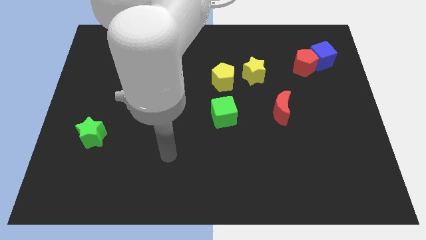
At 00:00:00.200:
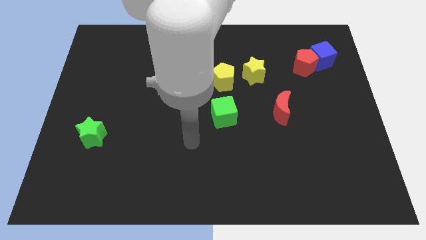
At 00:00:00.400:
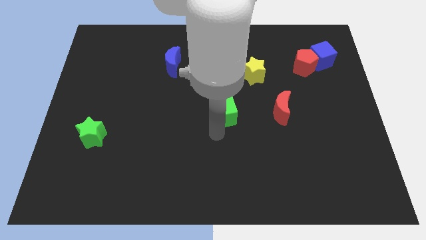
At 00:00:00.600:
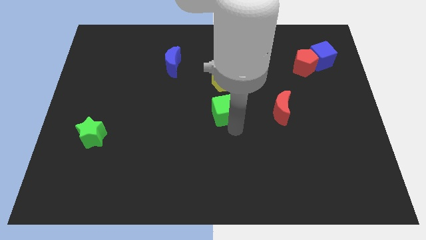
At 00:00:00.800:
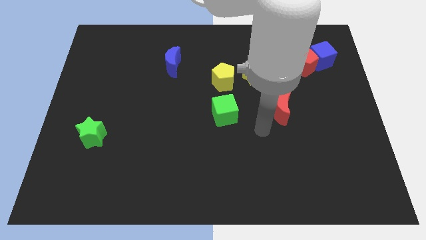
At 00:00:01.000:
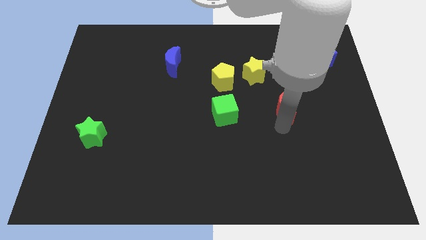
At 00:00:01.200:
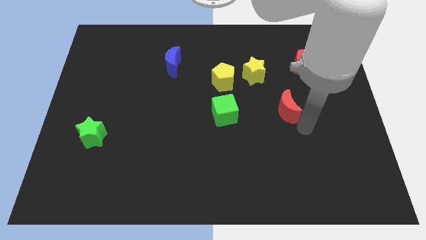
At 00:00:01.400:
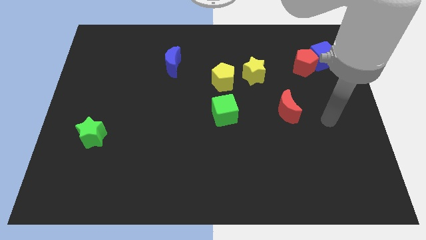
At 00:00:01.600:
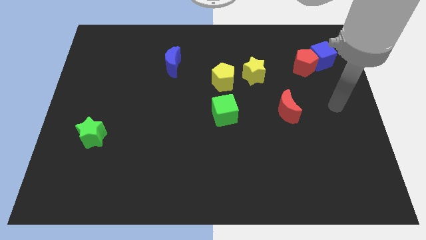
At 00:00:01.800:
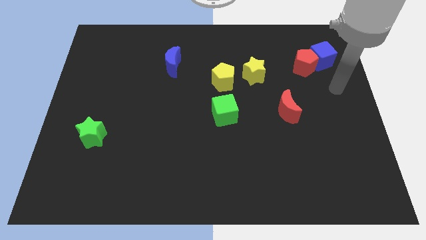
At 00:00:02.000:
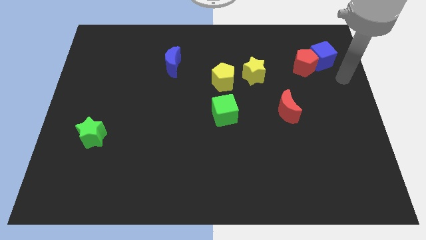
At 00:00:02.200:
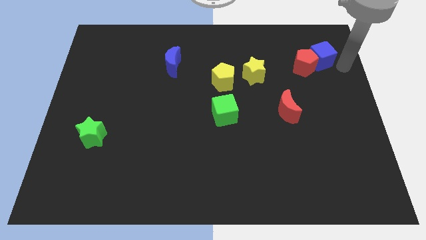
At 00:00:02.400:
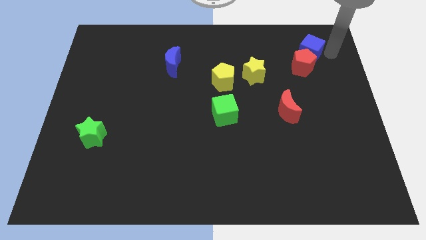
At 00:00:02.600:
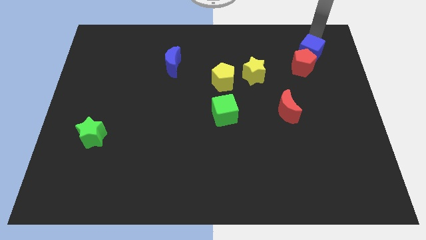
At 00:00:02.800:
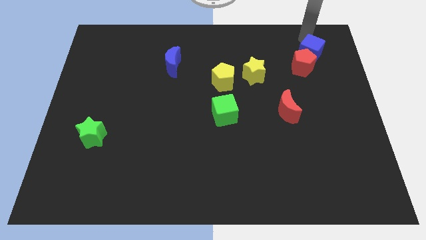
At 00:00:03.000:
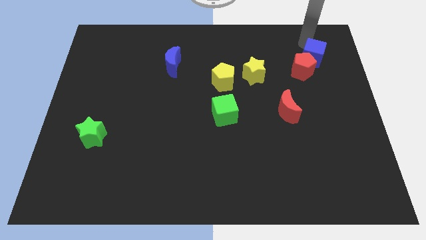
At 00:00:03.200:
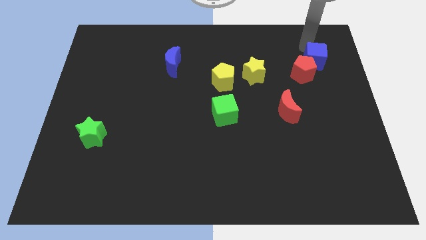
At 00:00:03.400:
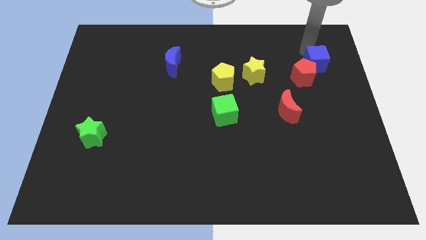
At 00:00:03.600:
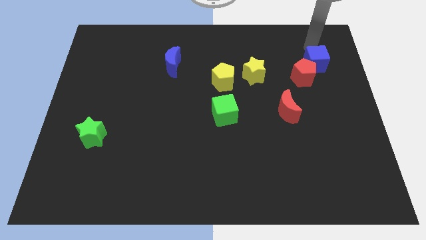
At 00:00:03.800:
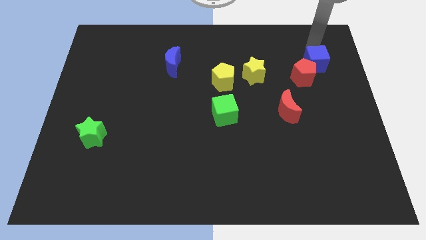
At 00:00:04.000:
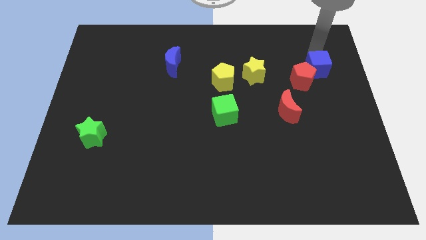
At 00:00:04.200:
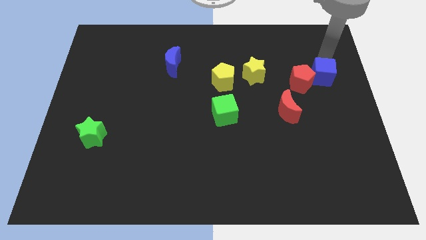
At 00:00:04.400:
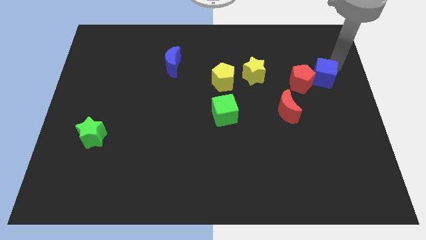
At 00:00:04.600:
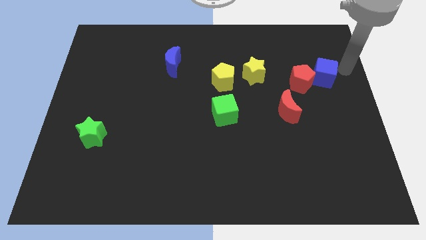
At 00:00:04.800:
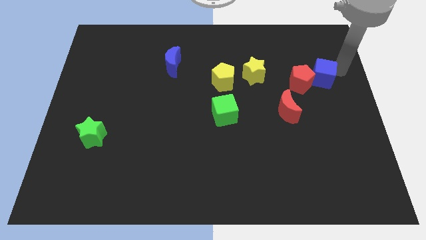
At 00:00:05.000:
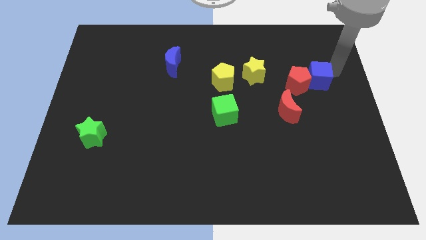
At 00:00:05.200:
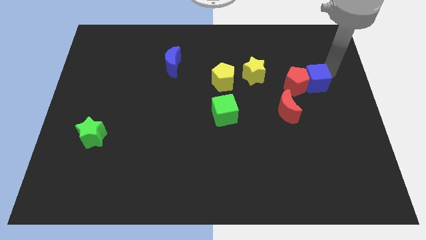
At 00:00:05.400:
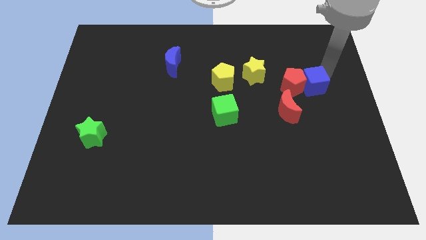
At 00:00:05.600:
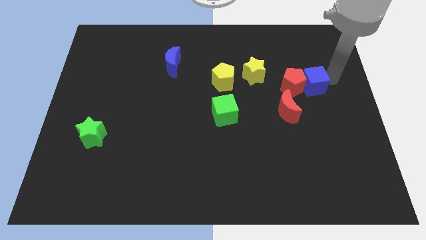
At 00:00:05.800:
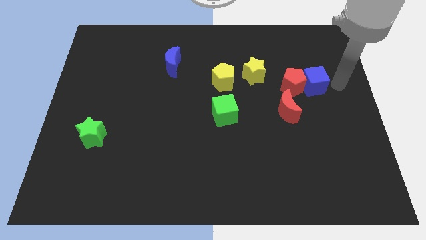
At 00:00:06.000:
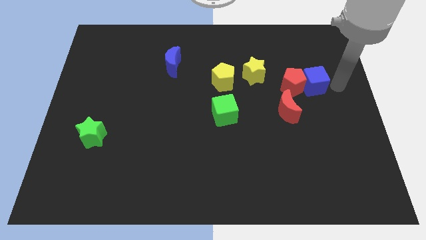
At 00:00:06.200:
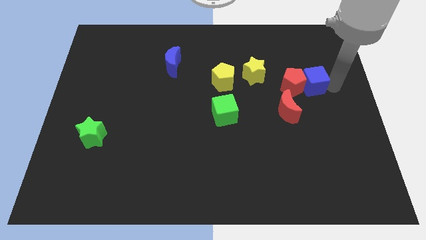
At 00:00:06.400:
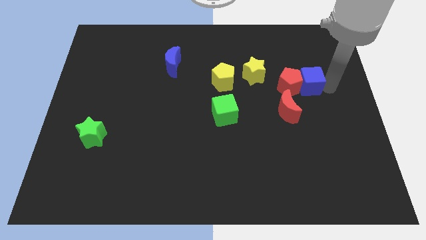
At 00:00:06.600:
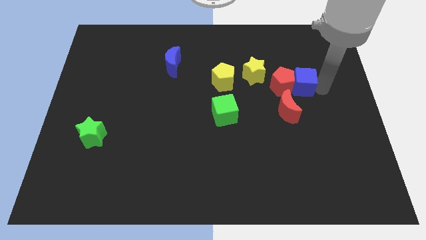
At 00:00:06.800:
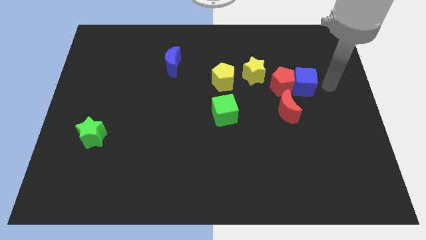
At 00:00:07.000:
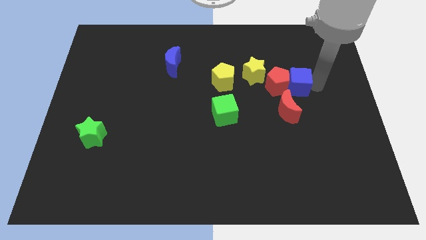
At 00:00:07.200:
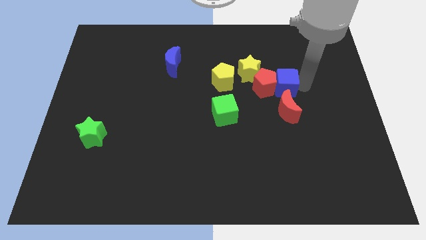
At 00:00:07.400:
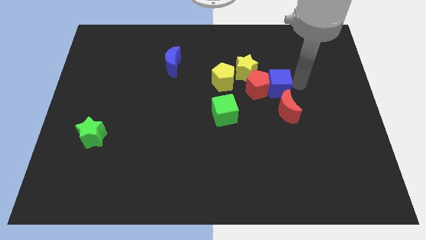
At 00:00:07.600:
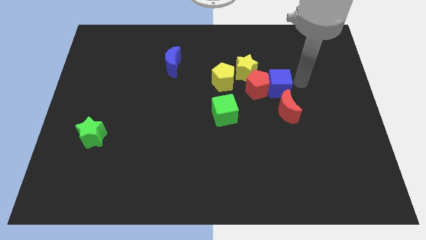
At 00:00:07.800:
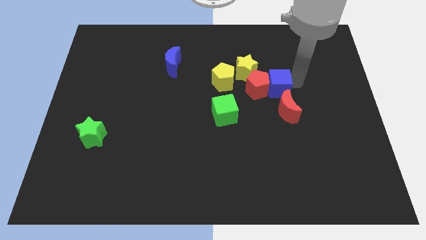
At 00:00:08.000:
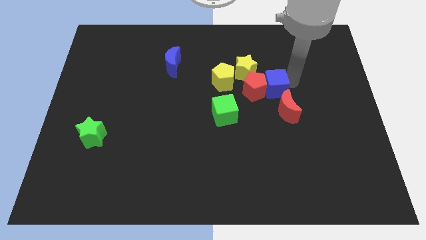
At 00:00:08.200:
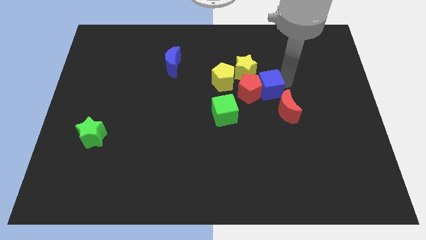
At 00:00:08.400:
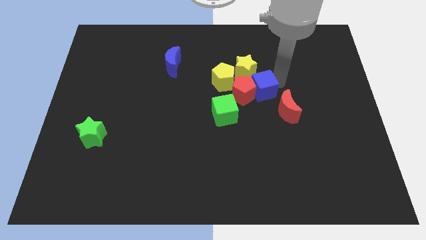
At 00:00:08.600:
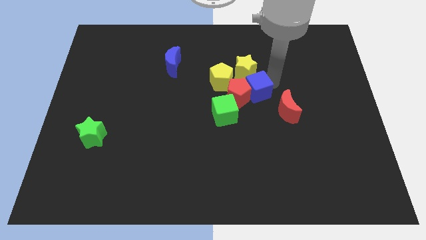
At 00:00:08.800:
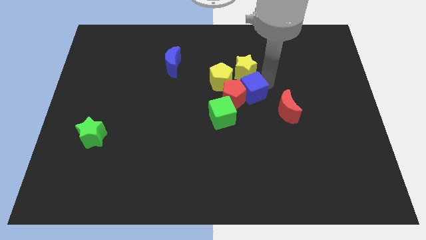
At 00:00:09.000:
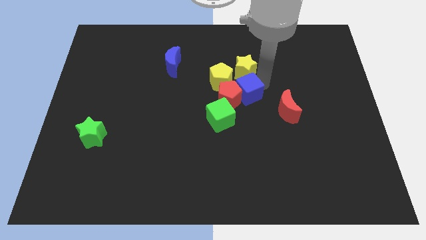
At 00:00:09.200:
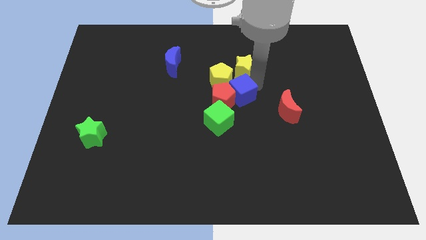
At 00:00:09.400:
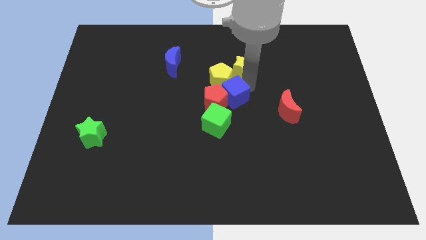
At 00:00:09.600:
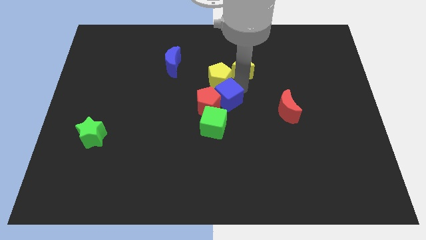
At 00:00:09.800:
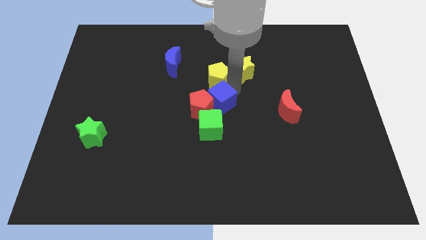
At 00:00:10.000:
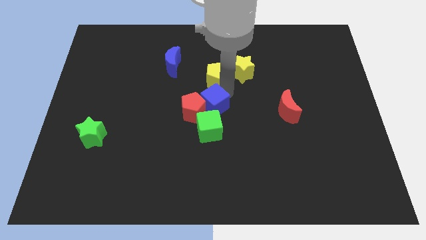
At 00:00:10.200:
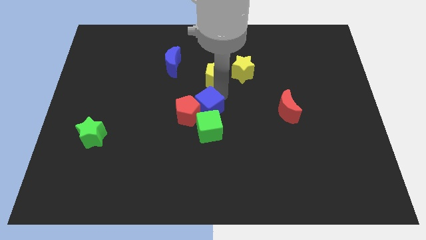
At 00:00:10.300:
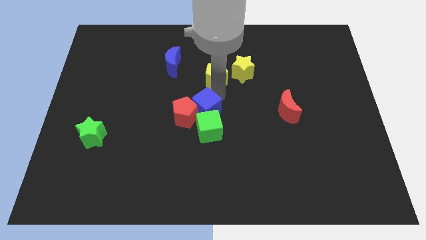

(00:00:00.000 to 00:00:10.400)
push the blue cube towards the green cube
